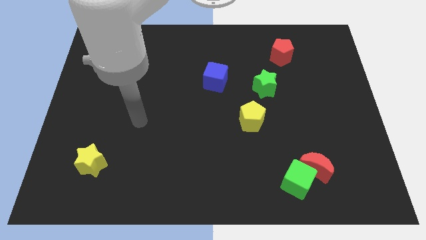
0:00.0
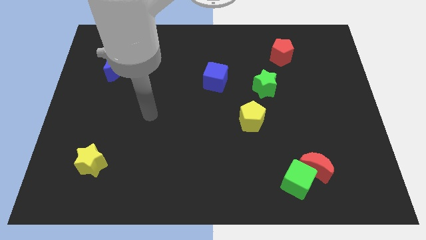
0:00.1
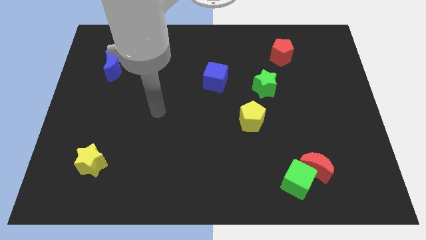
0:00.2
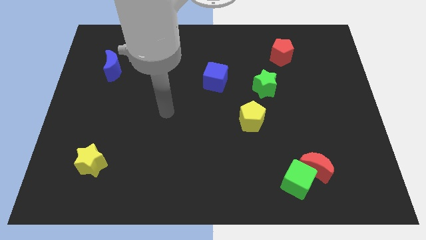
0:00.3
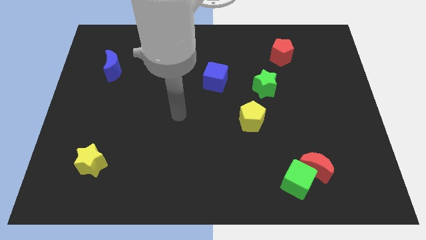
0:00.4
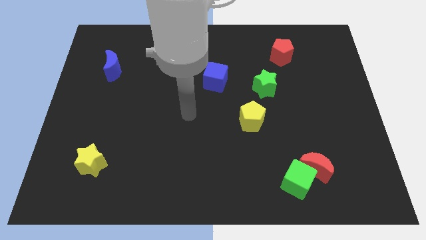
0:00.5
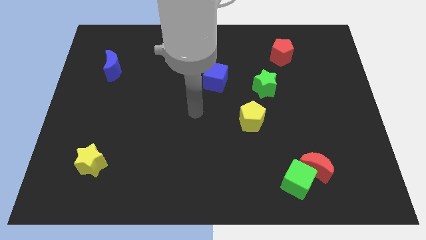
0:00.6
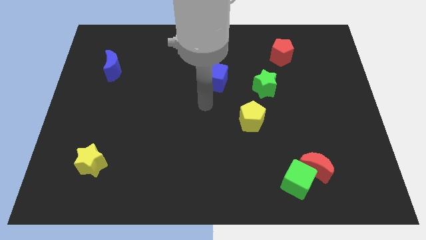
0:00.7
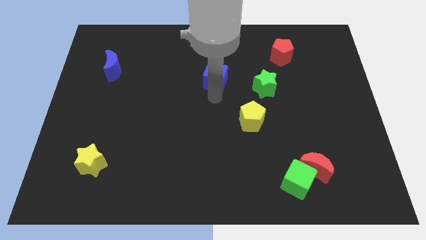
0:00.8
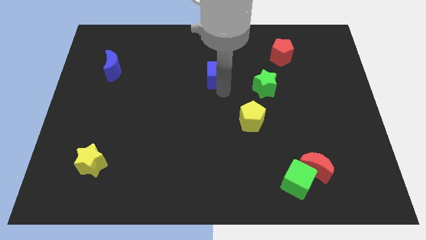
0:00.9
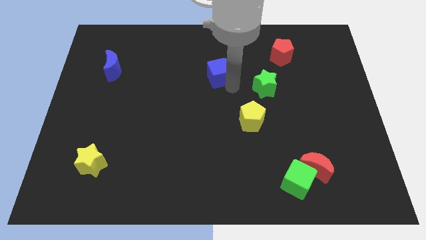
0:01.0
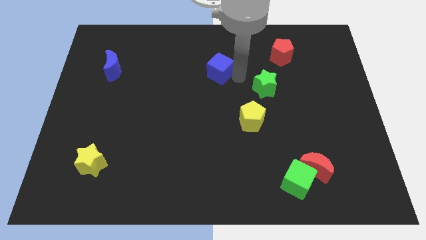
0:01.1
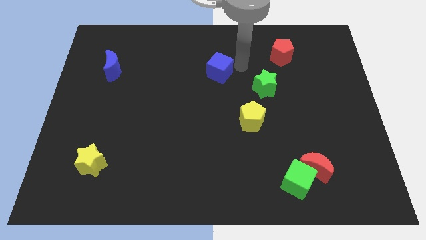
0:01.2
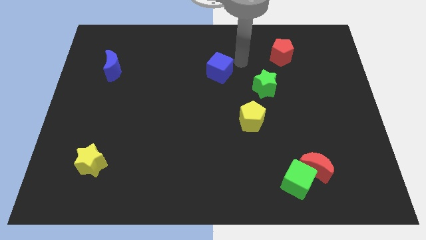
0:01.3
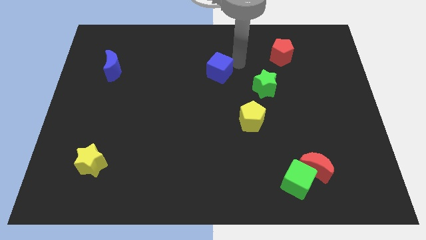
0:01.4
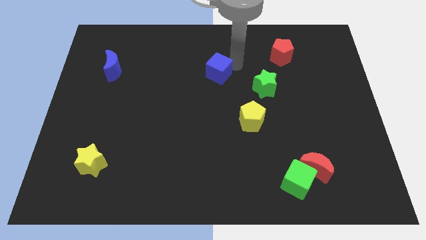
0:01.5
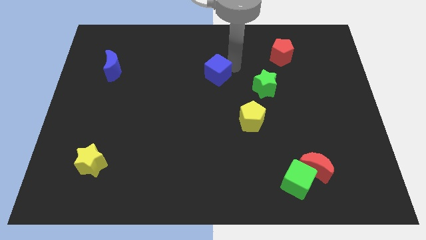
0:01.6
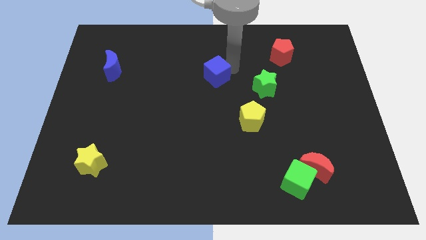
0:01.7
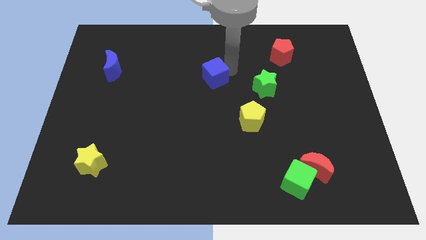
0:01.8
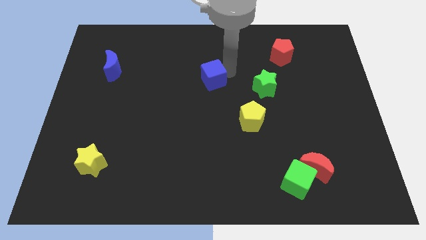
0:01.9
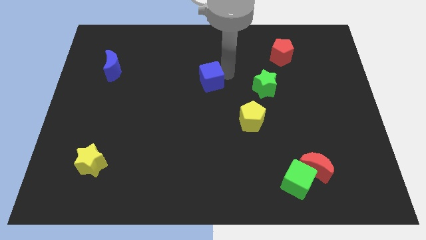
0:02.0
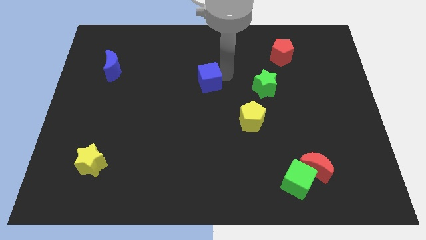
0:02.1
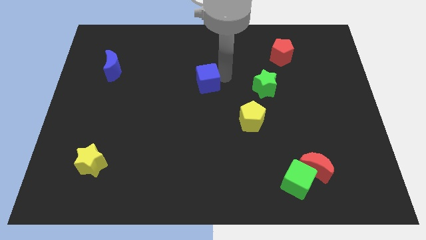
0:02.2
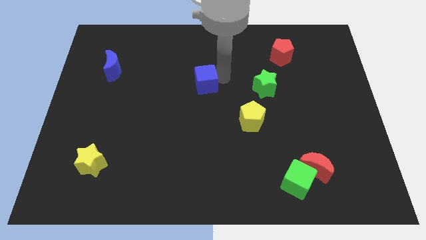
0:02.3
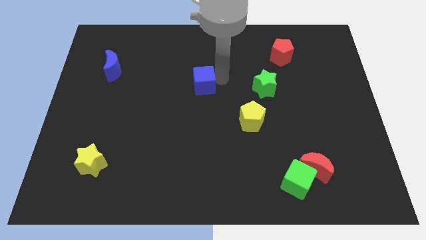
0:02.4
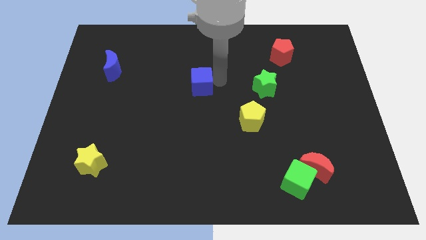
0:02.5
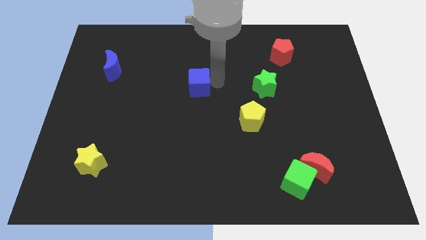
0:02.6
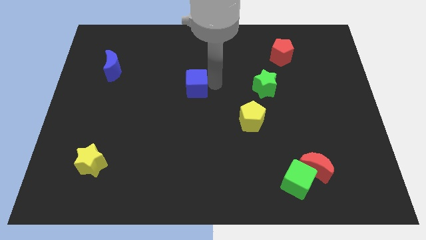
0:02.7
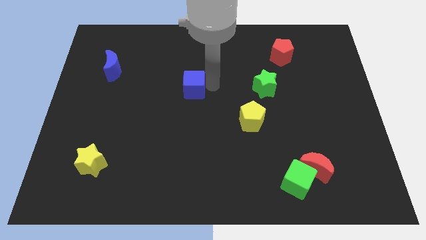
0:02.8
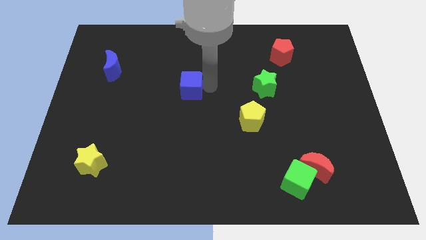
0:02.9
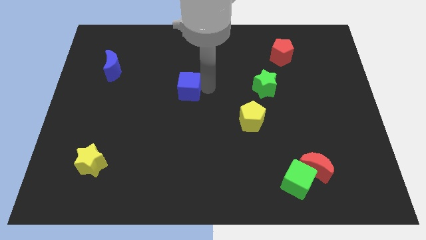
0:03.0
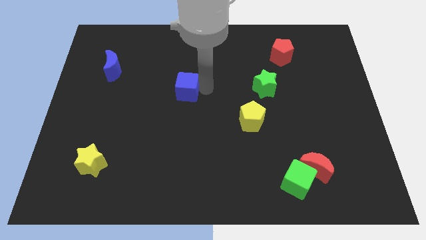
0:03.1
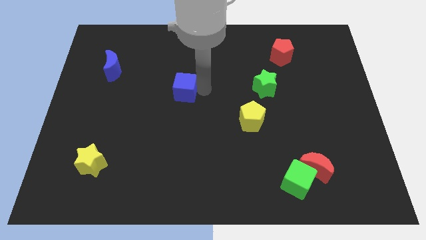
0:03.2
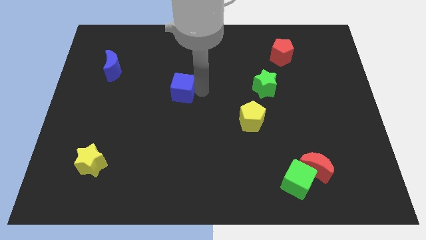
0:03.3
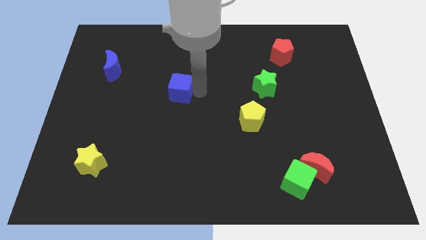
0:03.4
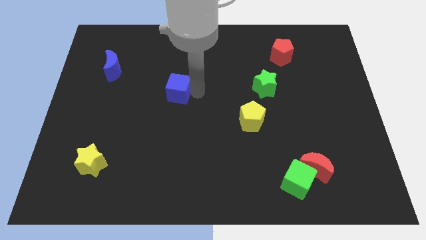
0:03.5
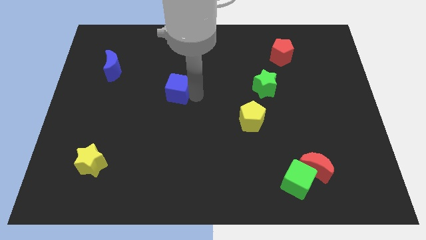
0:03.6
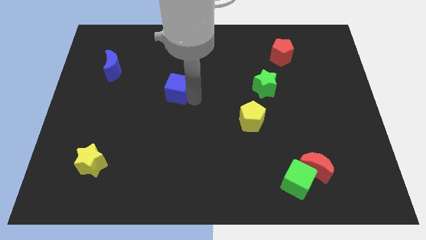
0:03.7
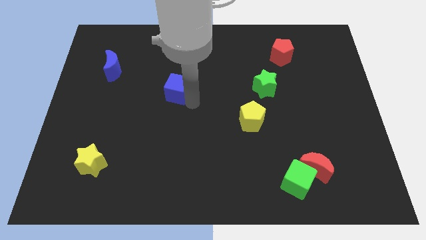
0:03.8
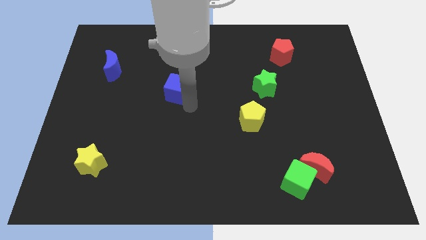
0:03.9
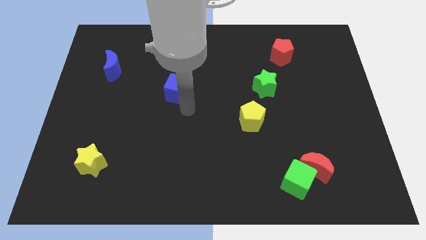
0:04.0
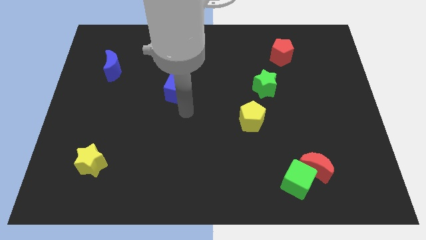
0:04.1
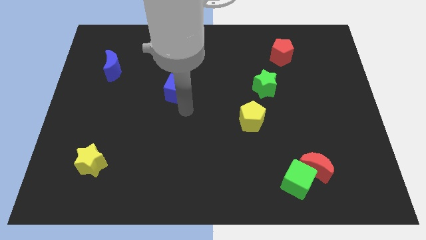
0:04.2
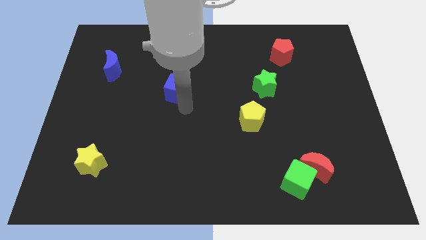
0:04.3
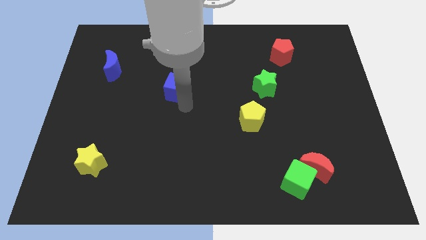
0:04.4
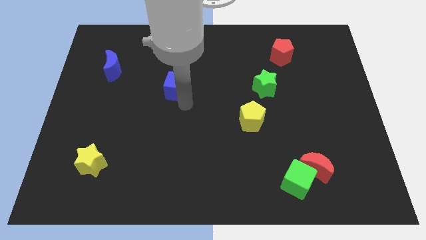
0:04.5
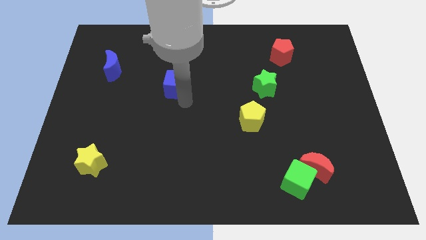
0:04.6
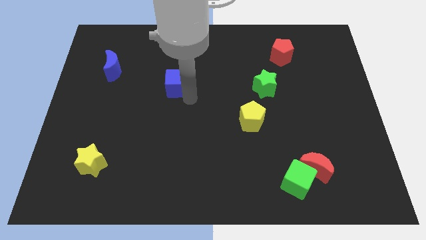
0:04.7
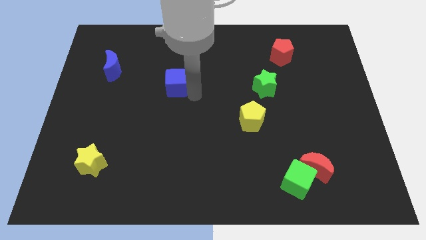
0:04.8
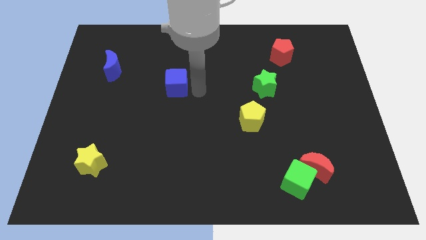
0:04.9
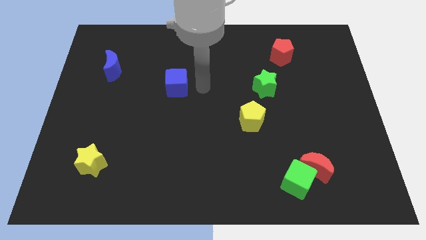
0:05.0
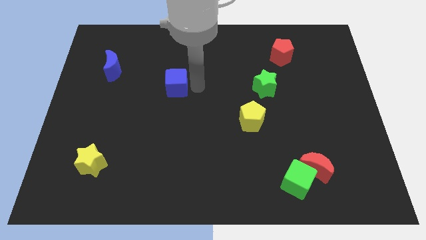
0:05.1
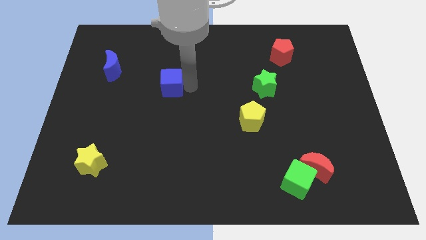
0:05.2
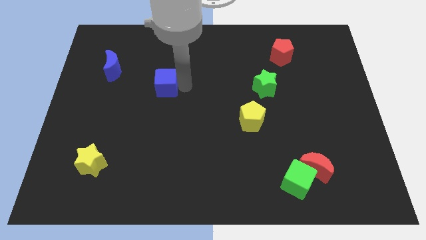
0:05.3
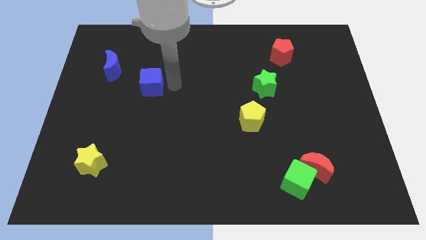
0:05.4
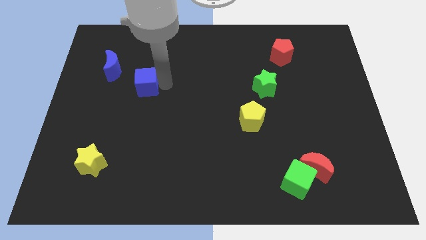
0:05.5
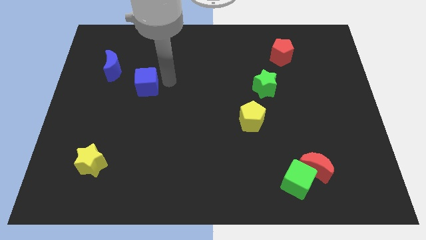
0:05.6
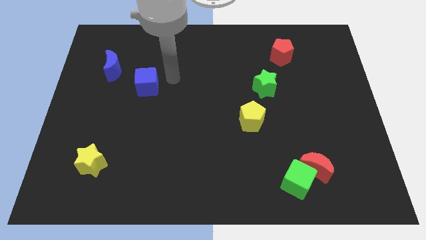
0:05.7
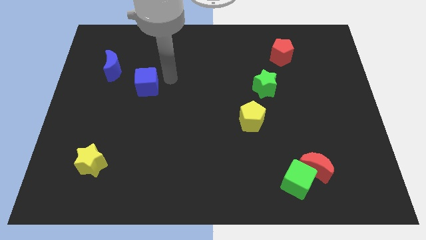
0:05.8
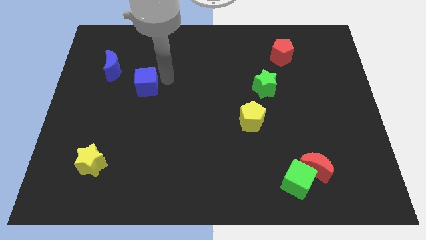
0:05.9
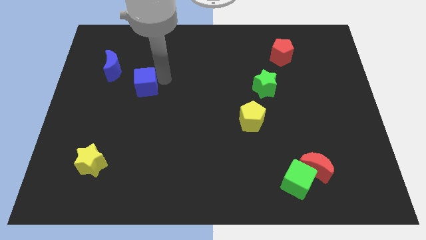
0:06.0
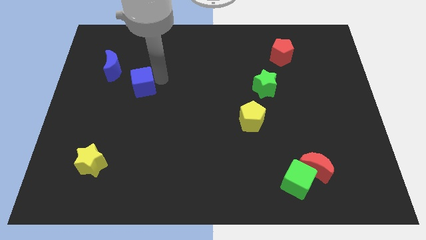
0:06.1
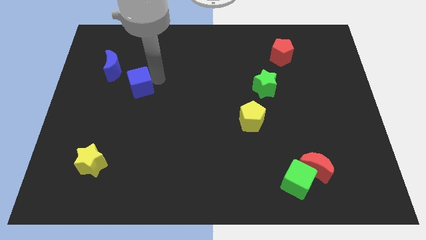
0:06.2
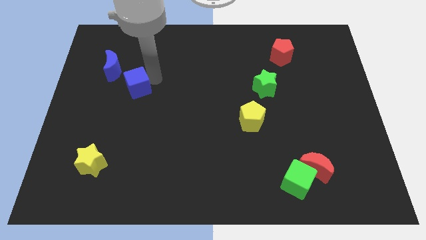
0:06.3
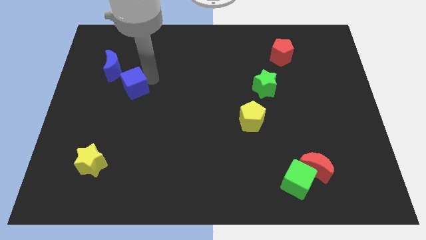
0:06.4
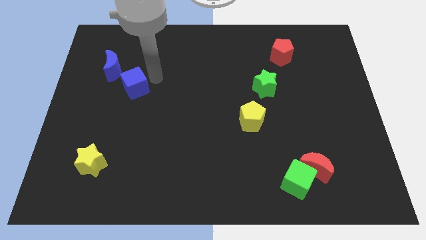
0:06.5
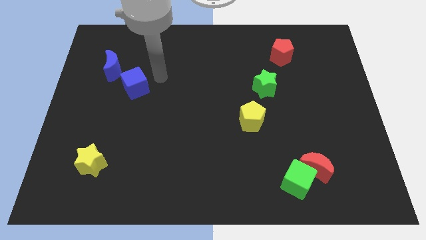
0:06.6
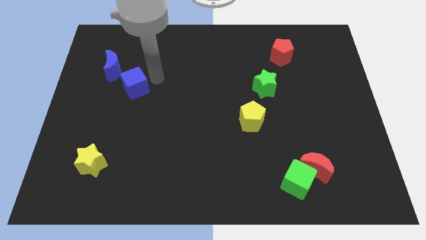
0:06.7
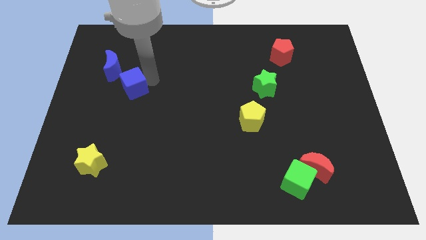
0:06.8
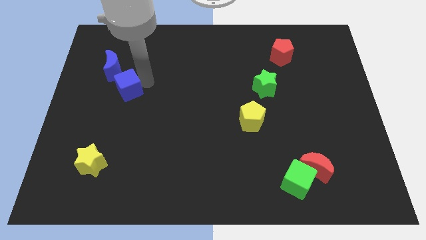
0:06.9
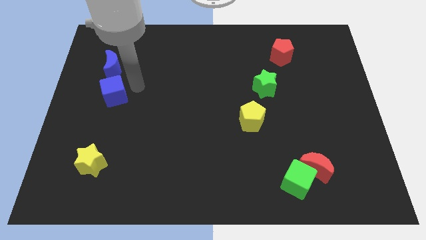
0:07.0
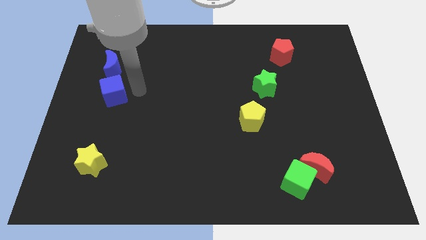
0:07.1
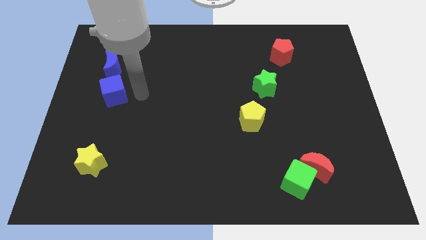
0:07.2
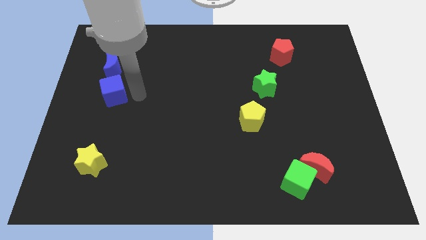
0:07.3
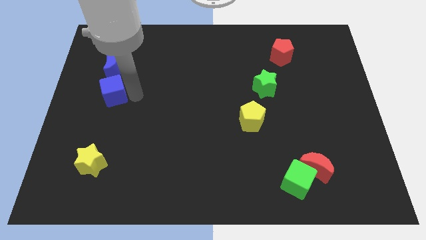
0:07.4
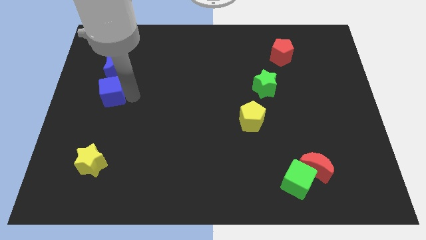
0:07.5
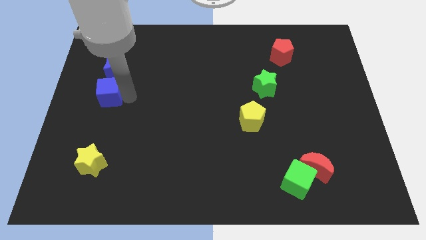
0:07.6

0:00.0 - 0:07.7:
slide the blue cube to the center left

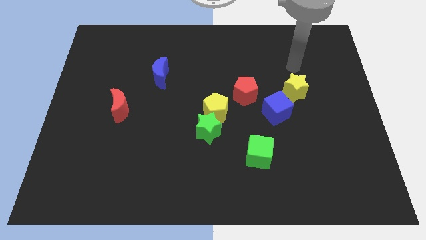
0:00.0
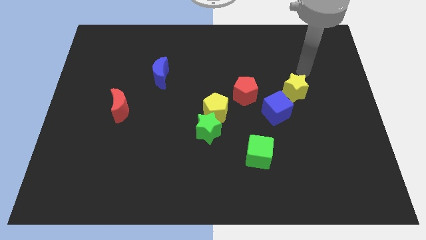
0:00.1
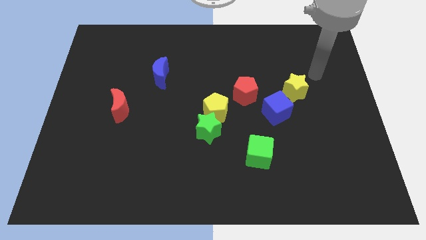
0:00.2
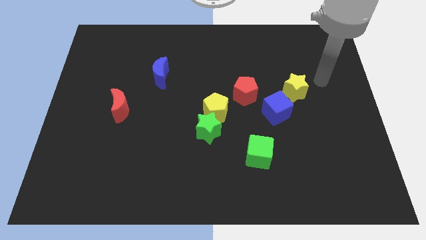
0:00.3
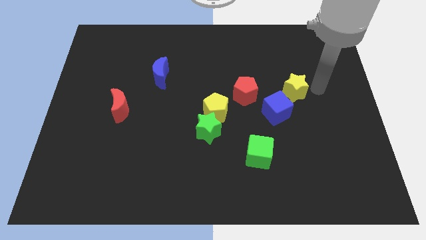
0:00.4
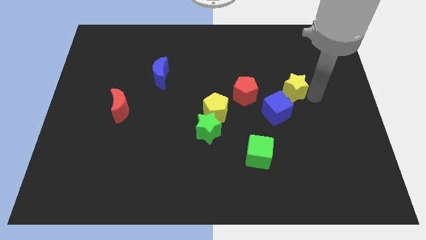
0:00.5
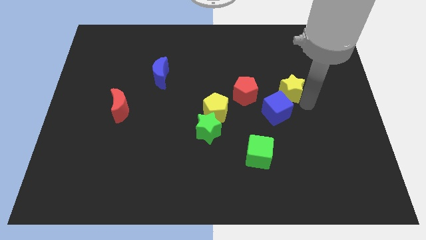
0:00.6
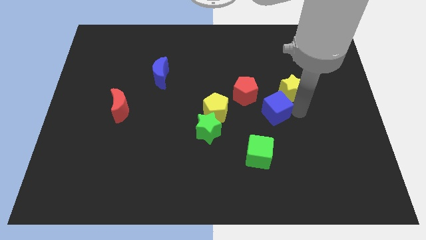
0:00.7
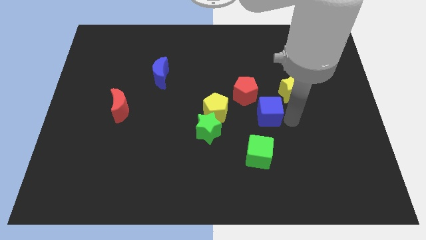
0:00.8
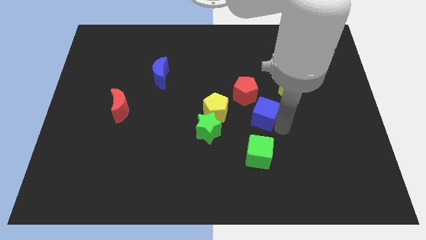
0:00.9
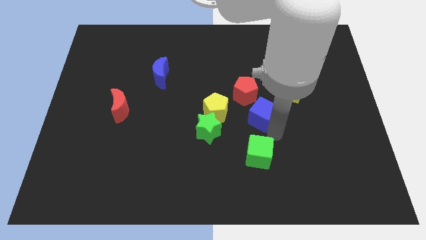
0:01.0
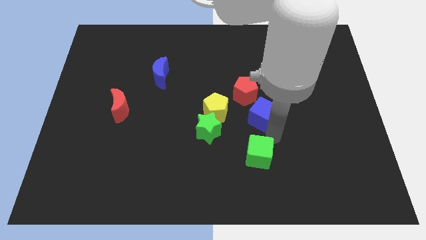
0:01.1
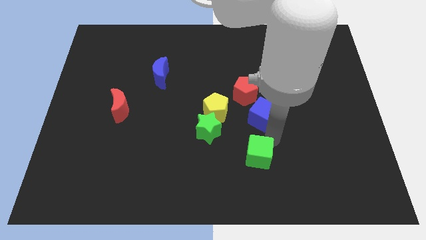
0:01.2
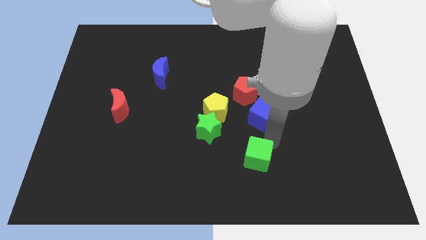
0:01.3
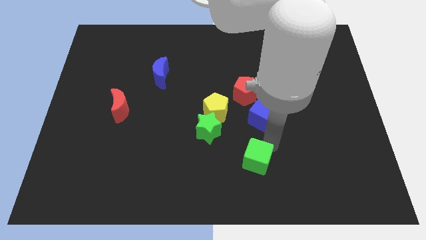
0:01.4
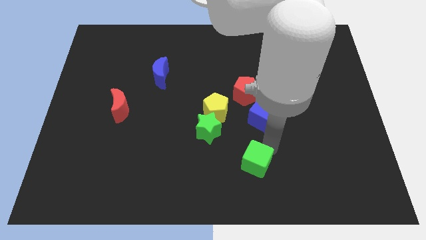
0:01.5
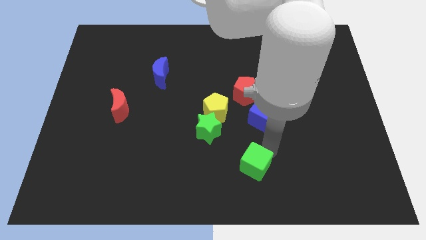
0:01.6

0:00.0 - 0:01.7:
move the green cube to the bottom side
